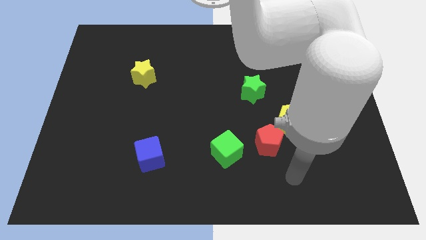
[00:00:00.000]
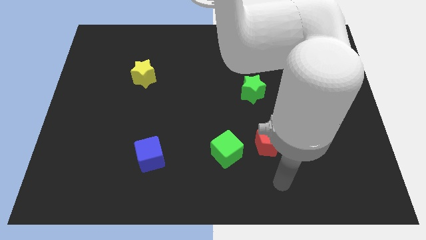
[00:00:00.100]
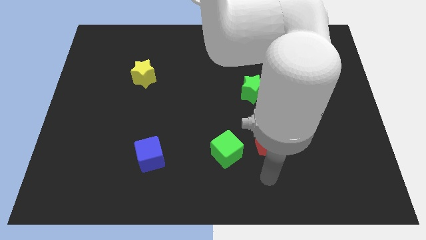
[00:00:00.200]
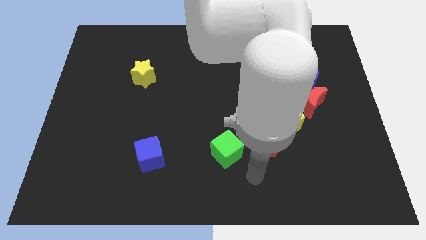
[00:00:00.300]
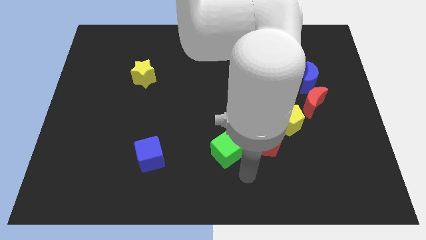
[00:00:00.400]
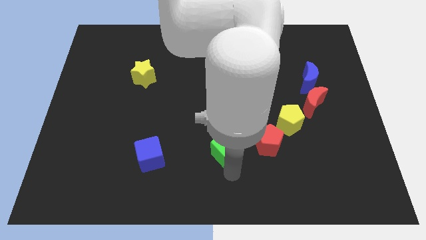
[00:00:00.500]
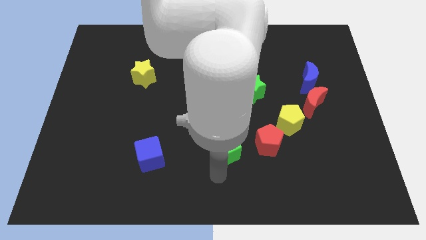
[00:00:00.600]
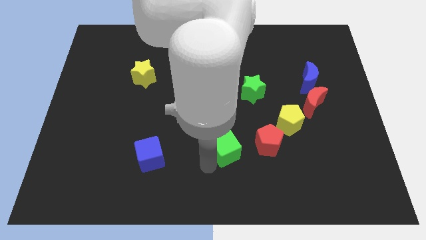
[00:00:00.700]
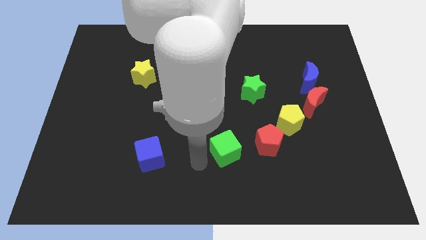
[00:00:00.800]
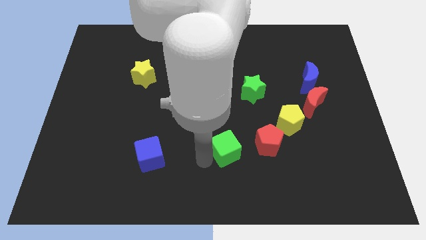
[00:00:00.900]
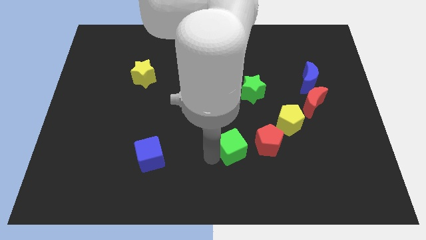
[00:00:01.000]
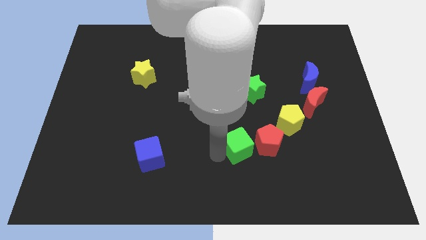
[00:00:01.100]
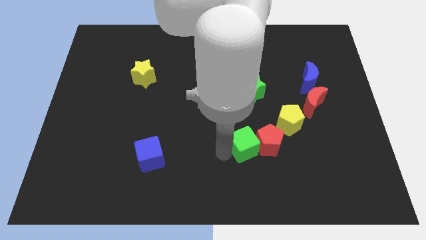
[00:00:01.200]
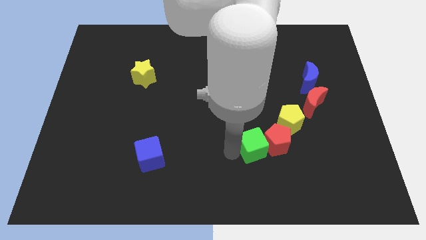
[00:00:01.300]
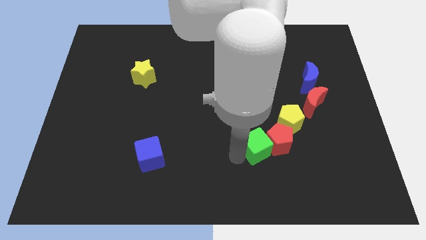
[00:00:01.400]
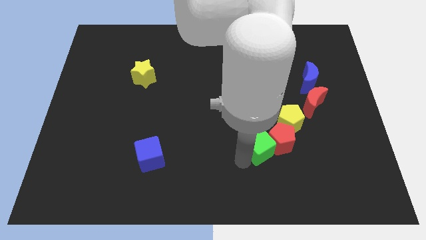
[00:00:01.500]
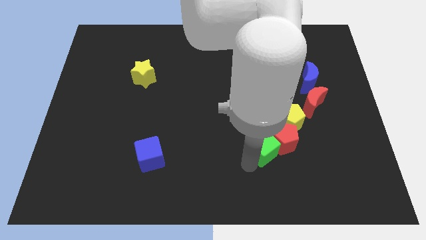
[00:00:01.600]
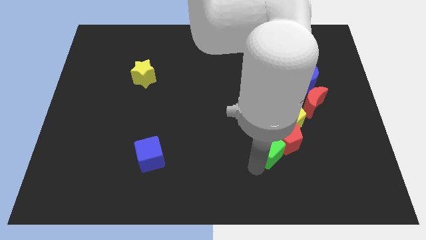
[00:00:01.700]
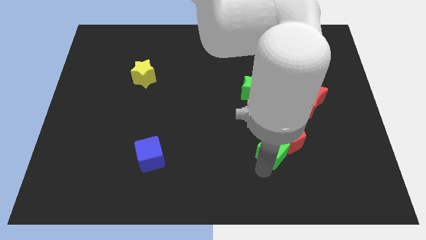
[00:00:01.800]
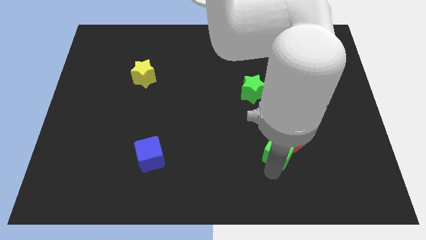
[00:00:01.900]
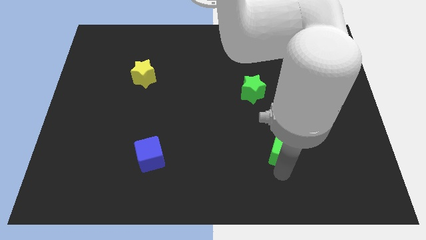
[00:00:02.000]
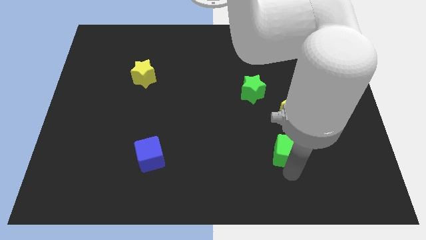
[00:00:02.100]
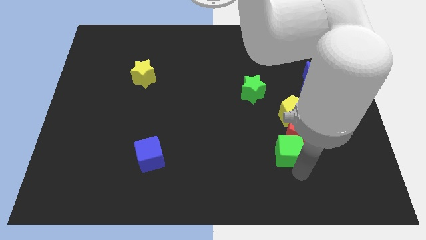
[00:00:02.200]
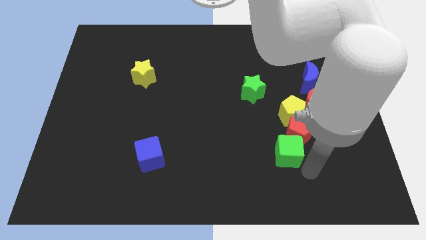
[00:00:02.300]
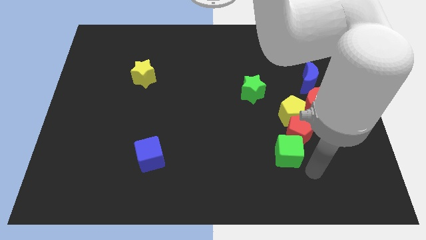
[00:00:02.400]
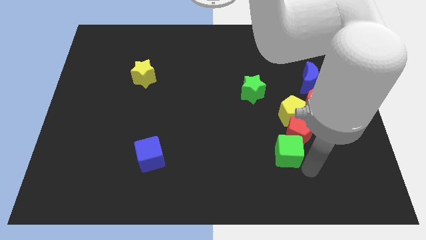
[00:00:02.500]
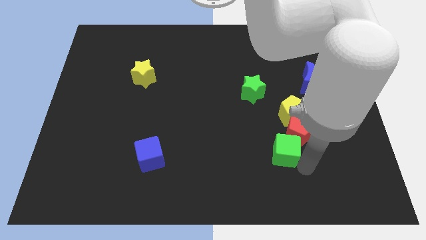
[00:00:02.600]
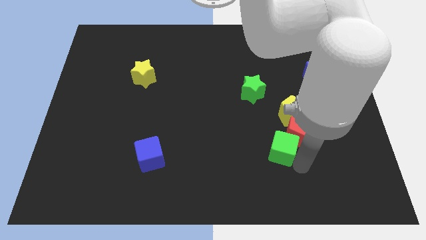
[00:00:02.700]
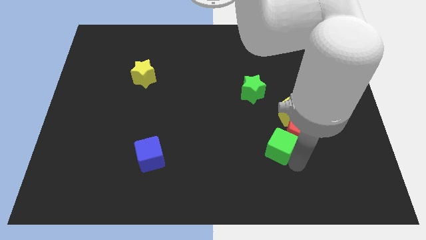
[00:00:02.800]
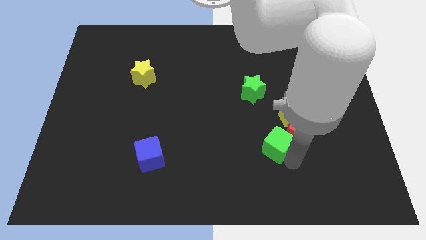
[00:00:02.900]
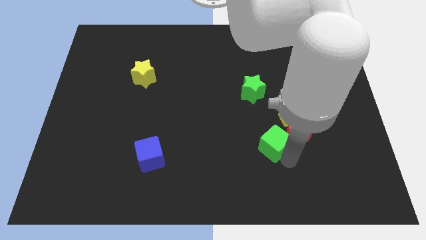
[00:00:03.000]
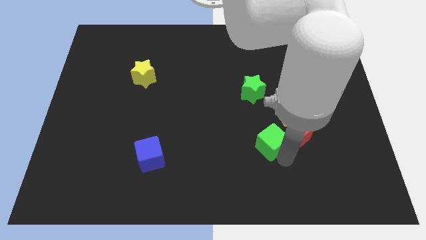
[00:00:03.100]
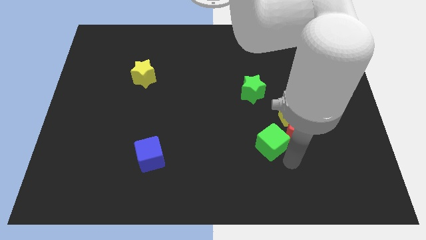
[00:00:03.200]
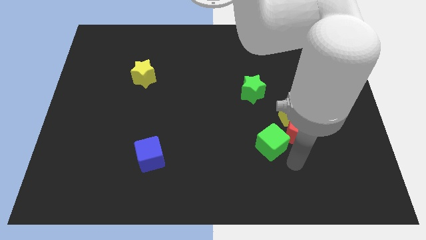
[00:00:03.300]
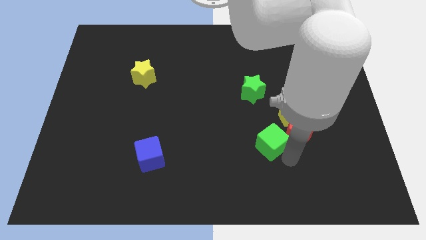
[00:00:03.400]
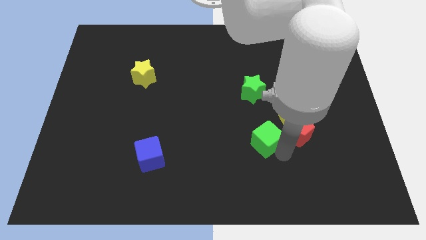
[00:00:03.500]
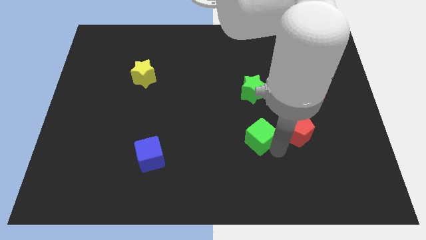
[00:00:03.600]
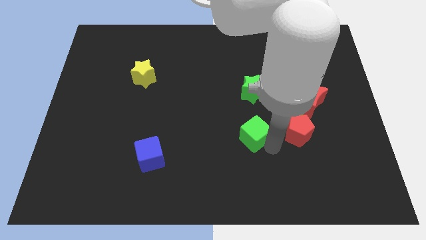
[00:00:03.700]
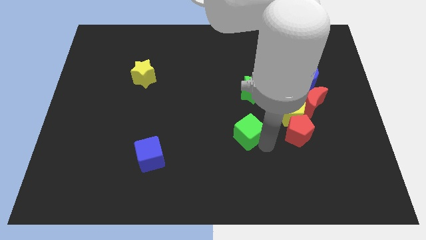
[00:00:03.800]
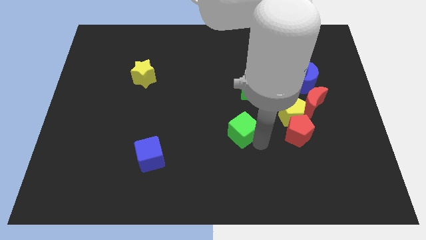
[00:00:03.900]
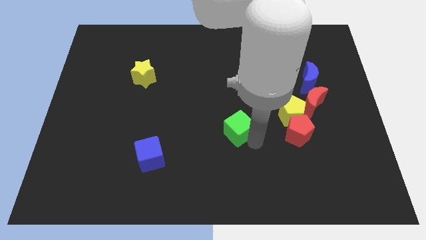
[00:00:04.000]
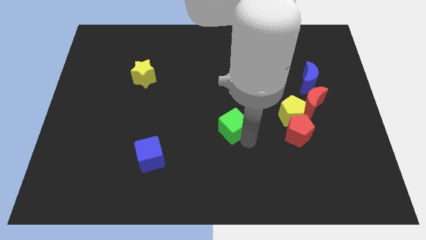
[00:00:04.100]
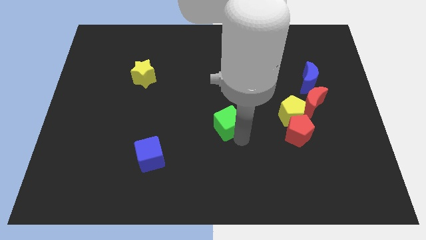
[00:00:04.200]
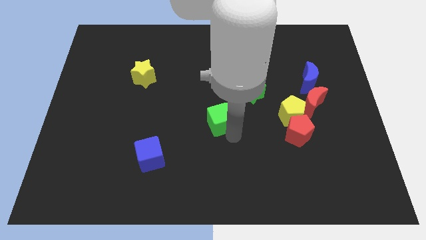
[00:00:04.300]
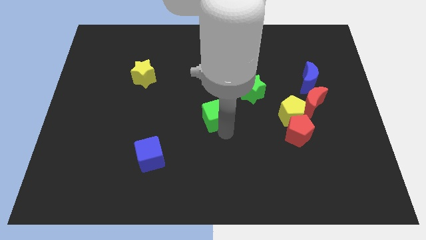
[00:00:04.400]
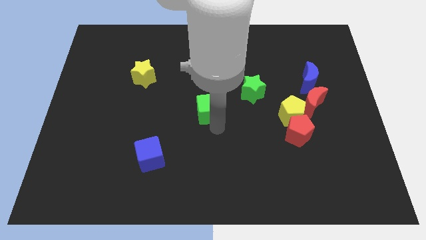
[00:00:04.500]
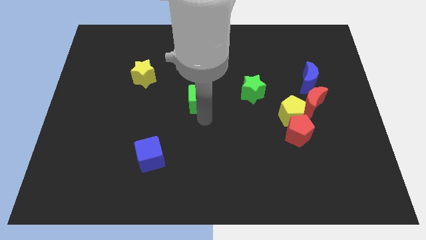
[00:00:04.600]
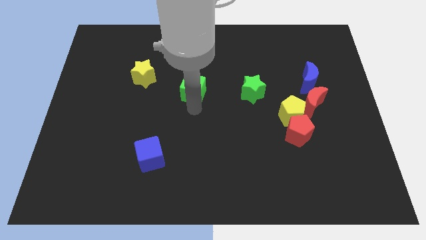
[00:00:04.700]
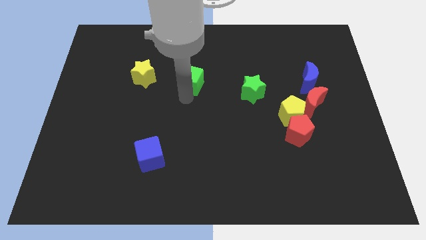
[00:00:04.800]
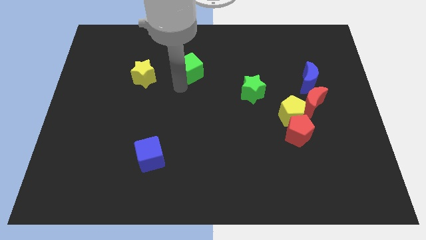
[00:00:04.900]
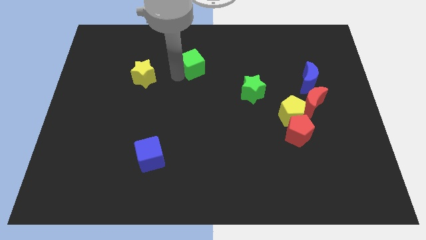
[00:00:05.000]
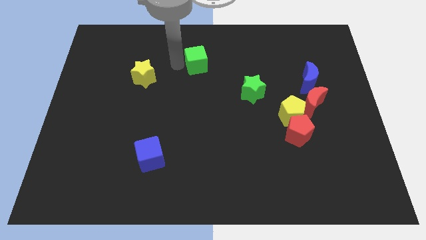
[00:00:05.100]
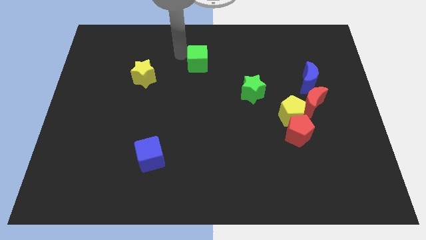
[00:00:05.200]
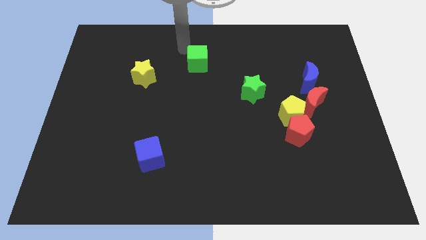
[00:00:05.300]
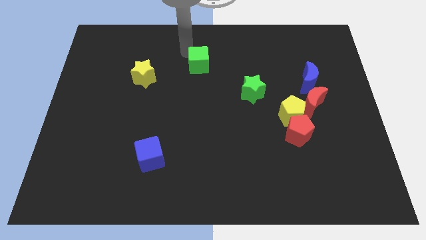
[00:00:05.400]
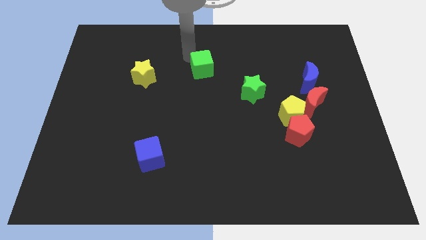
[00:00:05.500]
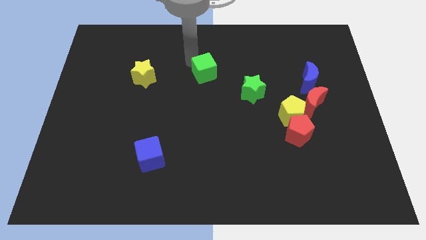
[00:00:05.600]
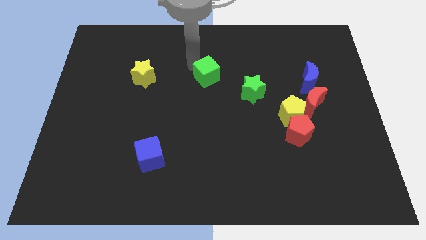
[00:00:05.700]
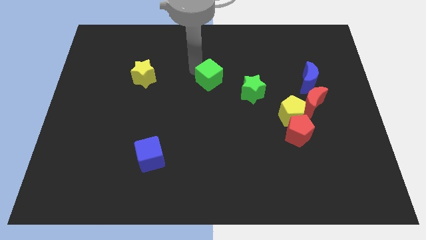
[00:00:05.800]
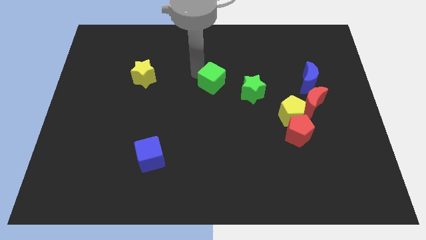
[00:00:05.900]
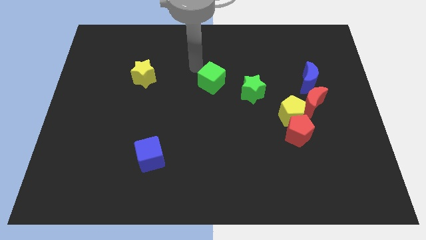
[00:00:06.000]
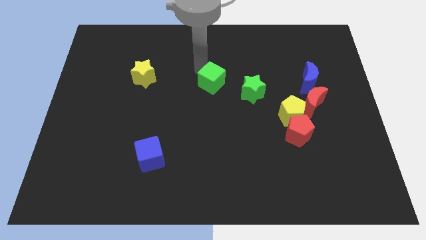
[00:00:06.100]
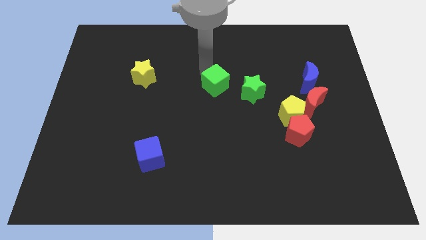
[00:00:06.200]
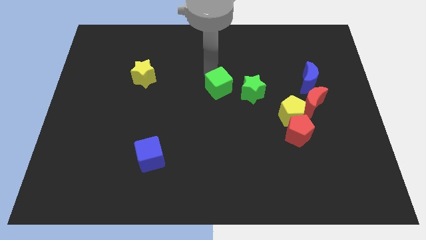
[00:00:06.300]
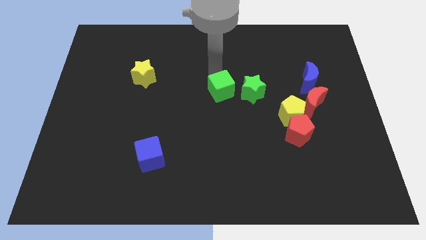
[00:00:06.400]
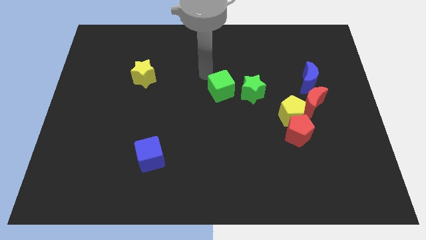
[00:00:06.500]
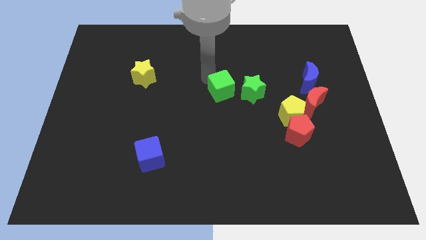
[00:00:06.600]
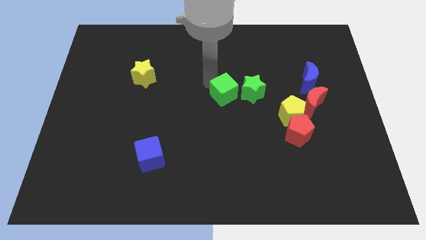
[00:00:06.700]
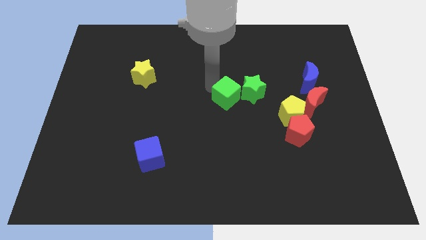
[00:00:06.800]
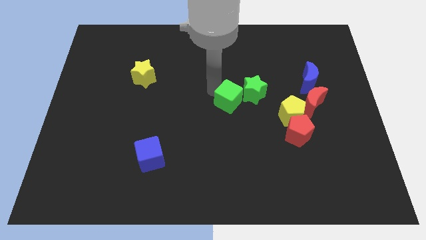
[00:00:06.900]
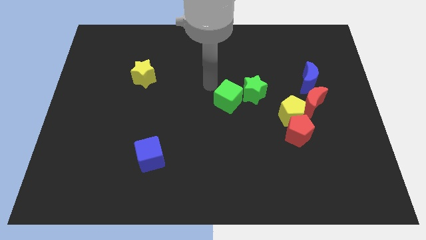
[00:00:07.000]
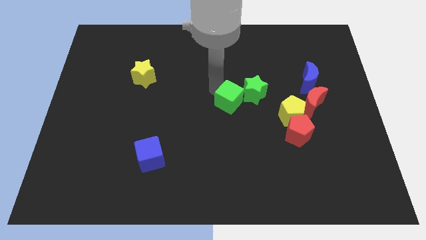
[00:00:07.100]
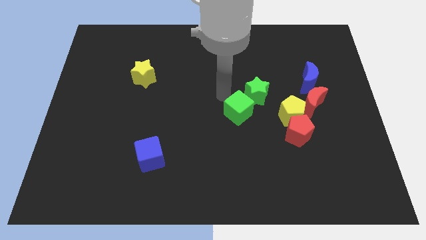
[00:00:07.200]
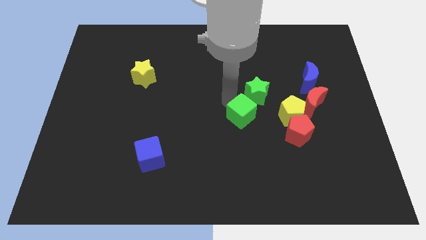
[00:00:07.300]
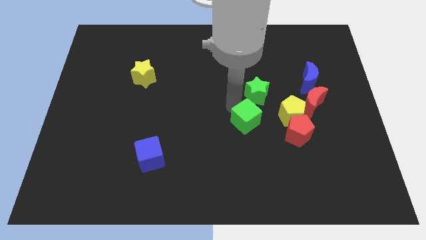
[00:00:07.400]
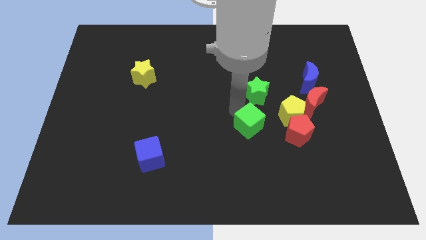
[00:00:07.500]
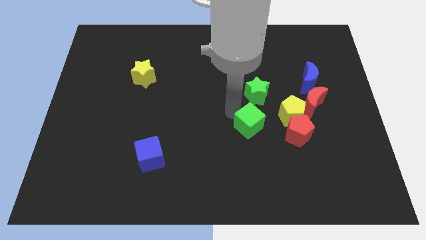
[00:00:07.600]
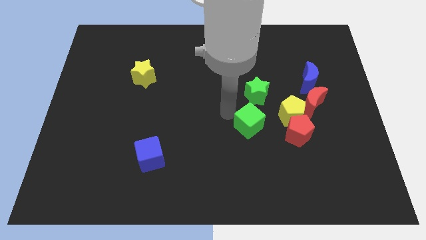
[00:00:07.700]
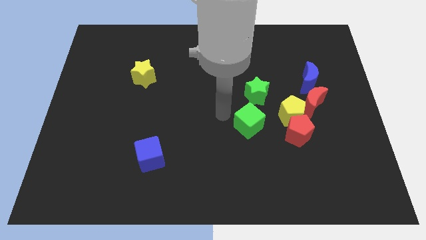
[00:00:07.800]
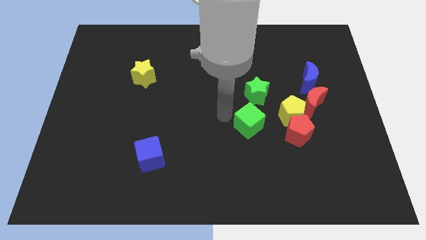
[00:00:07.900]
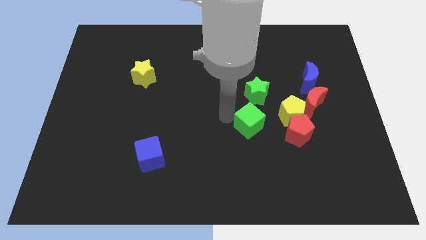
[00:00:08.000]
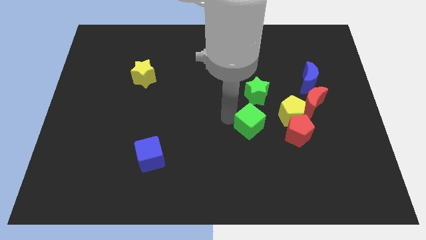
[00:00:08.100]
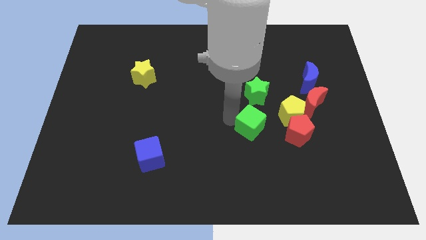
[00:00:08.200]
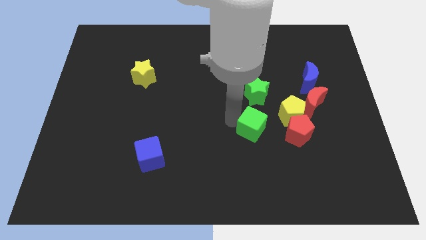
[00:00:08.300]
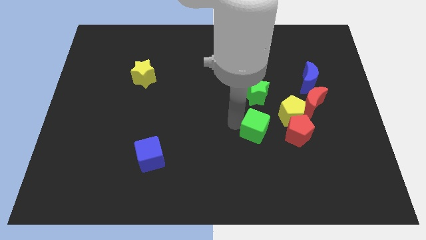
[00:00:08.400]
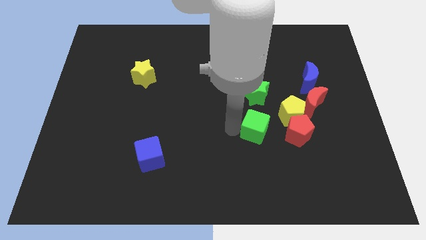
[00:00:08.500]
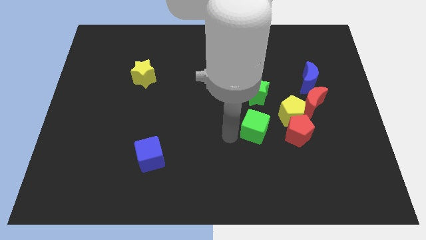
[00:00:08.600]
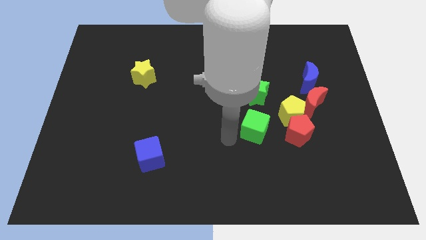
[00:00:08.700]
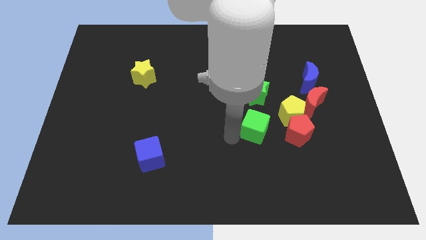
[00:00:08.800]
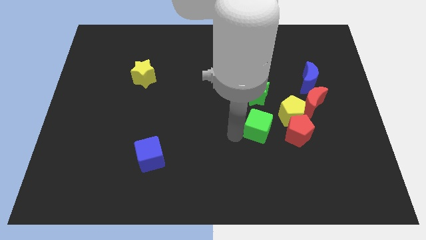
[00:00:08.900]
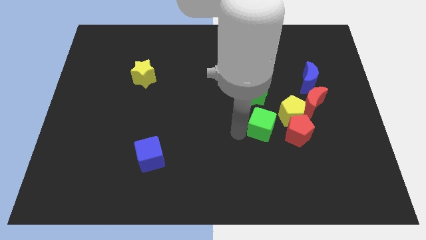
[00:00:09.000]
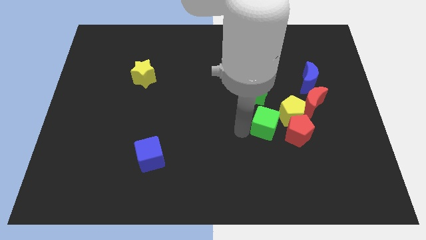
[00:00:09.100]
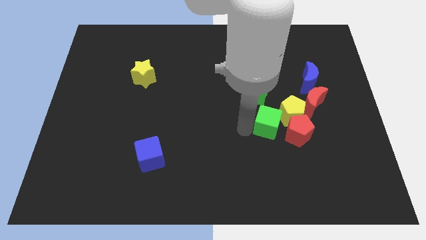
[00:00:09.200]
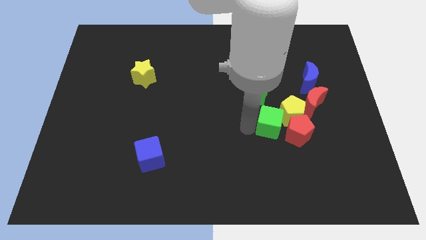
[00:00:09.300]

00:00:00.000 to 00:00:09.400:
move the green cube next to the yellow pentagon
